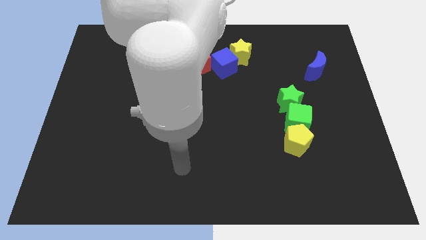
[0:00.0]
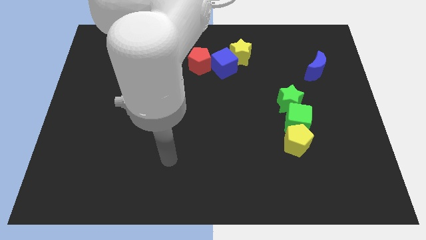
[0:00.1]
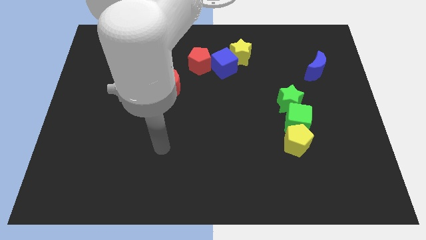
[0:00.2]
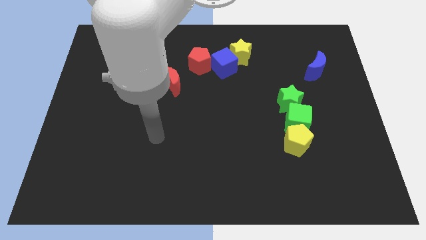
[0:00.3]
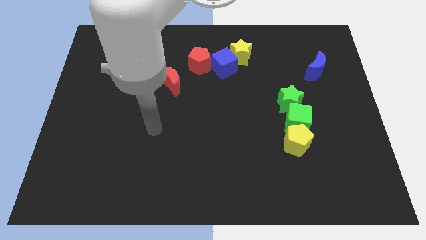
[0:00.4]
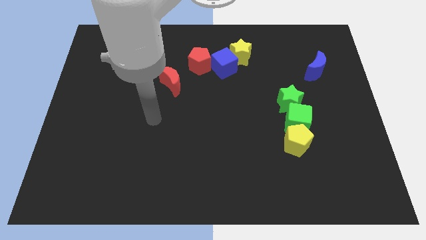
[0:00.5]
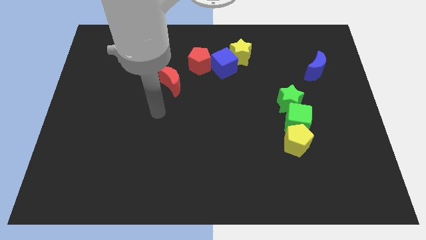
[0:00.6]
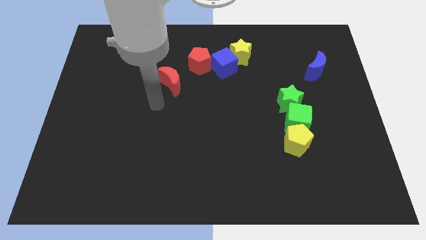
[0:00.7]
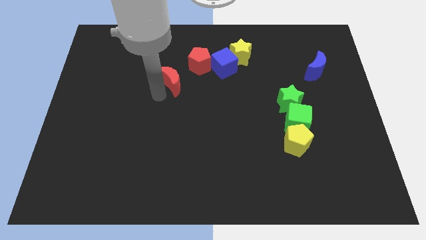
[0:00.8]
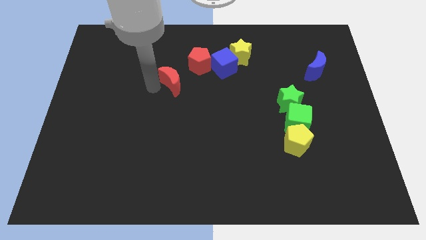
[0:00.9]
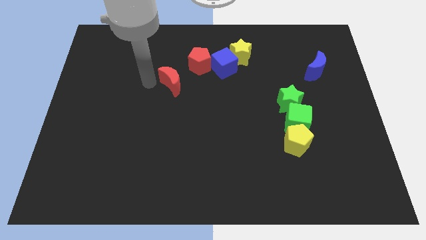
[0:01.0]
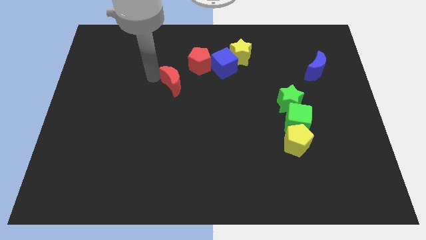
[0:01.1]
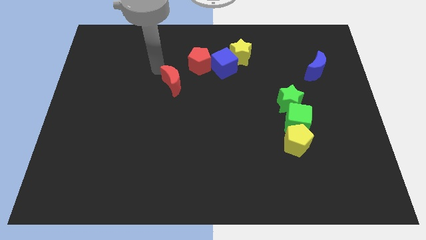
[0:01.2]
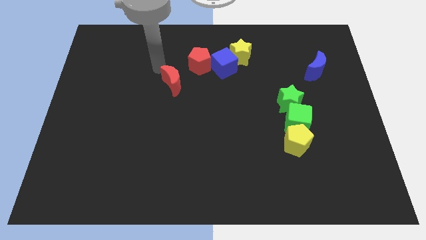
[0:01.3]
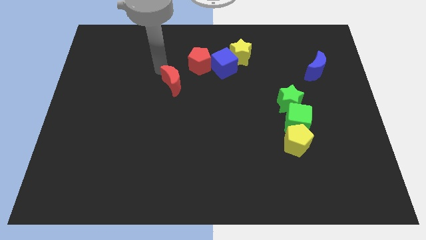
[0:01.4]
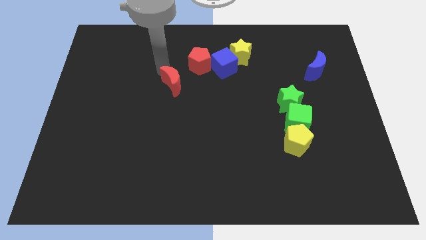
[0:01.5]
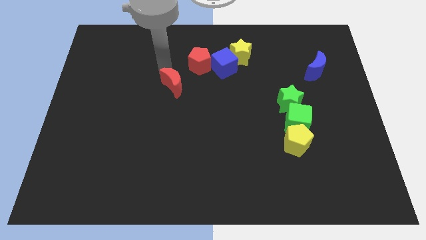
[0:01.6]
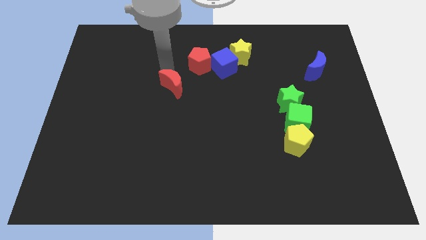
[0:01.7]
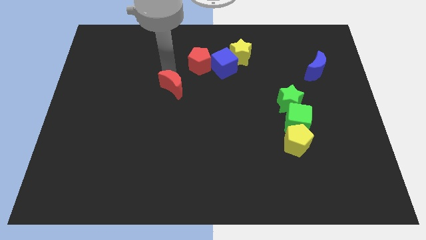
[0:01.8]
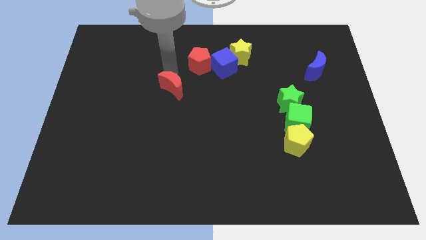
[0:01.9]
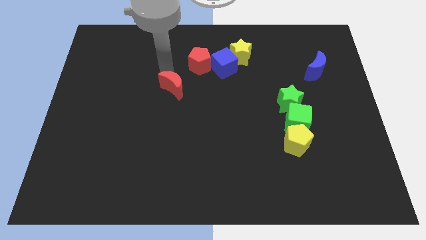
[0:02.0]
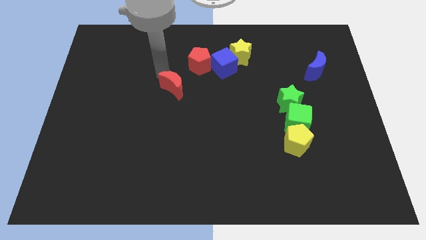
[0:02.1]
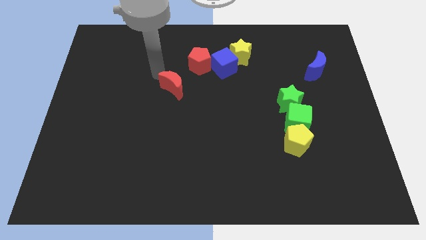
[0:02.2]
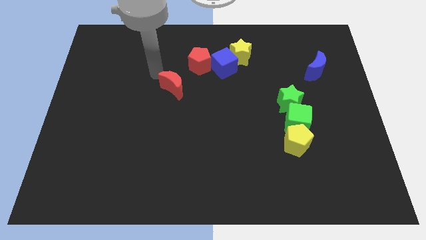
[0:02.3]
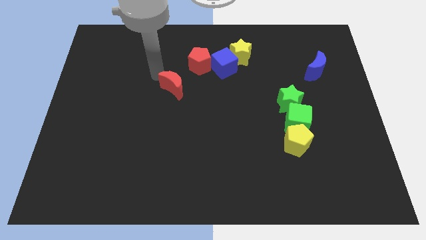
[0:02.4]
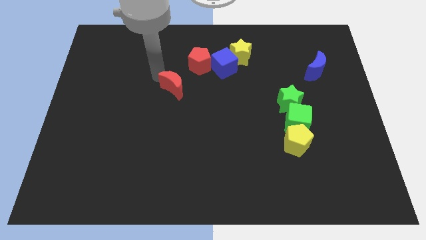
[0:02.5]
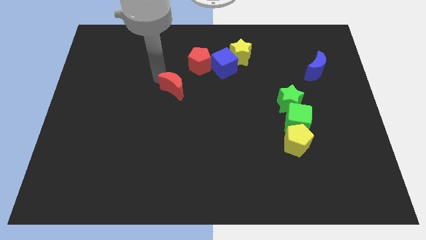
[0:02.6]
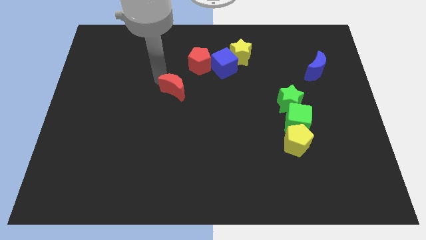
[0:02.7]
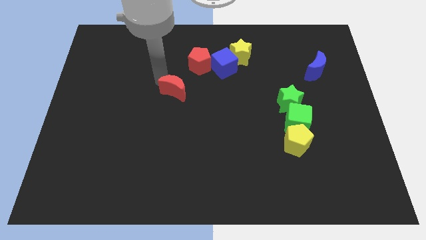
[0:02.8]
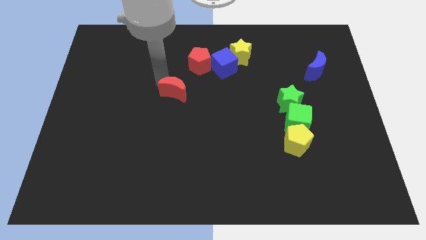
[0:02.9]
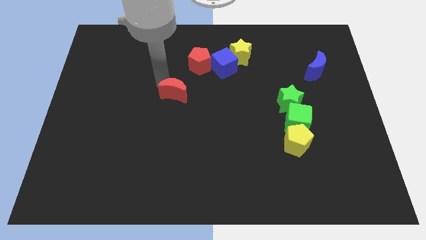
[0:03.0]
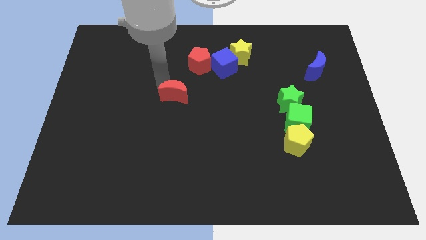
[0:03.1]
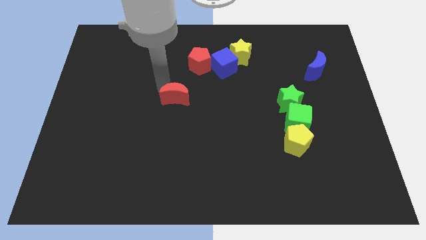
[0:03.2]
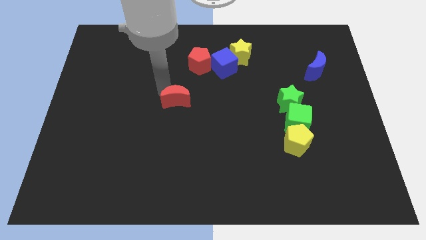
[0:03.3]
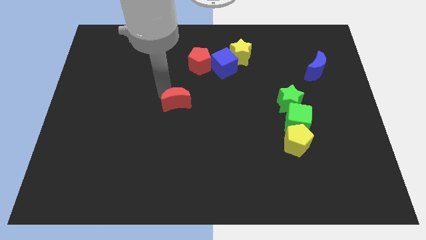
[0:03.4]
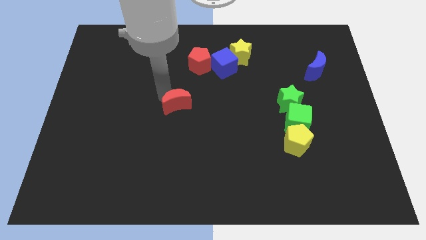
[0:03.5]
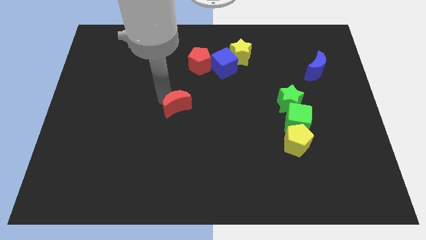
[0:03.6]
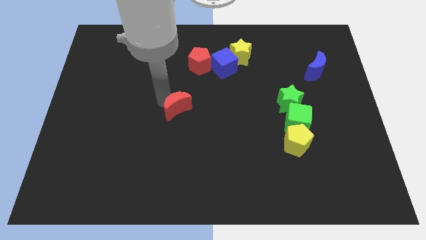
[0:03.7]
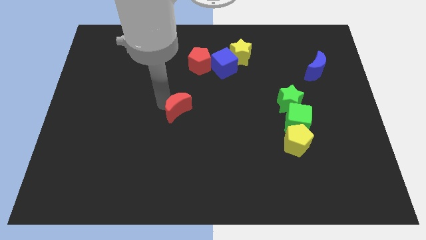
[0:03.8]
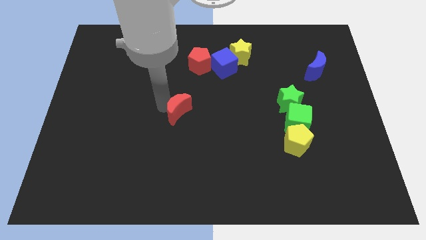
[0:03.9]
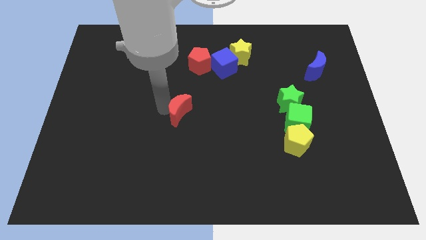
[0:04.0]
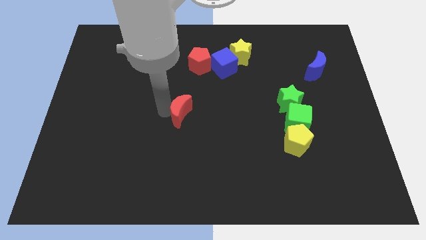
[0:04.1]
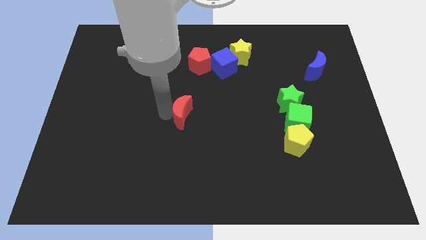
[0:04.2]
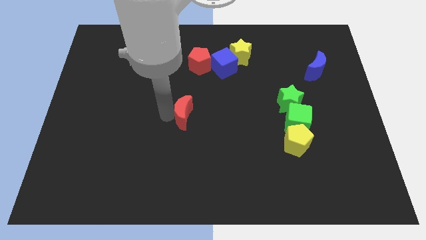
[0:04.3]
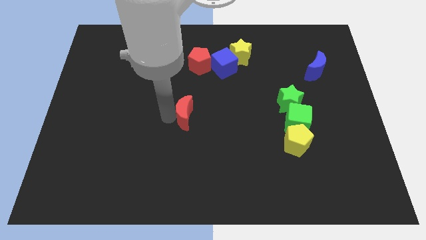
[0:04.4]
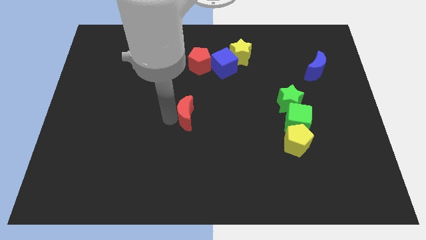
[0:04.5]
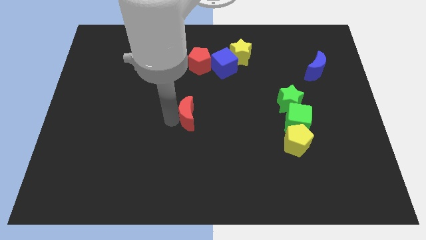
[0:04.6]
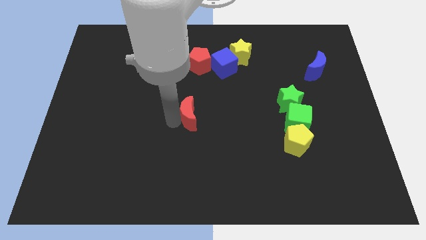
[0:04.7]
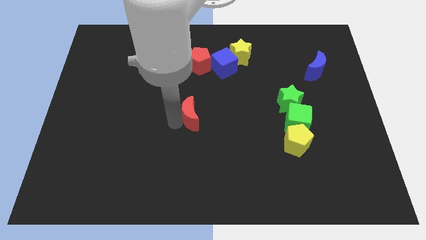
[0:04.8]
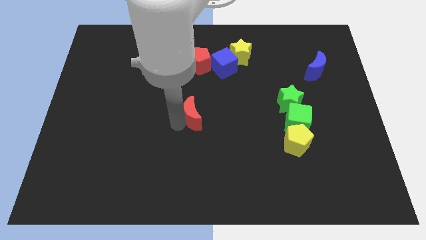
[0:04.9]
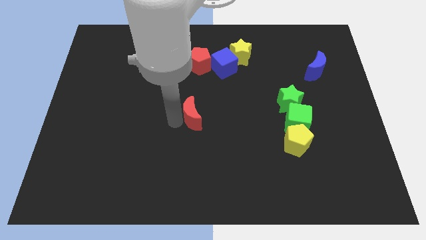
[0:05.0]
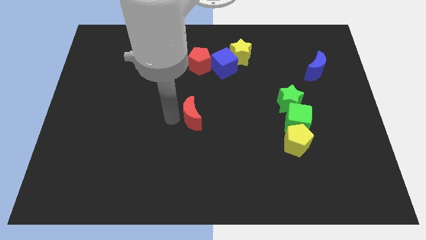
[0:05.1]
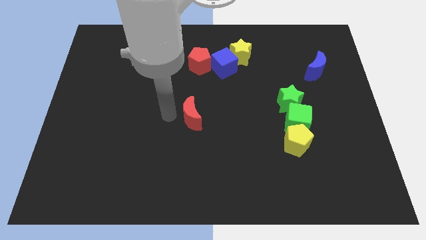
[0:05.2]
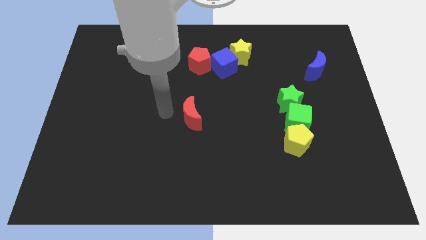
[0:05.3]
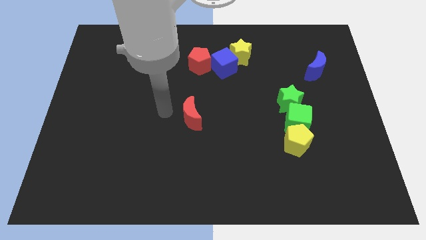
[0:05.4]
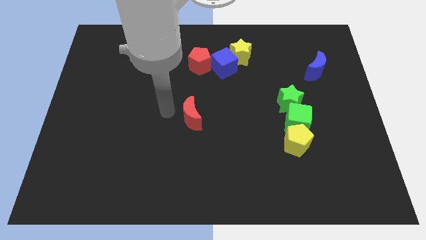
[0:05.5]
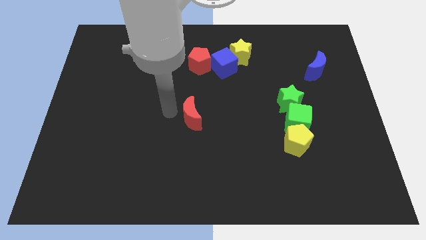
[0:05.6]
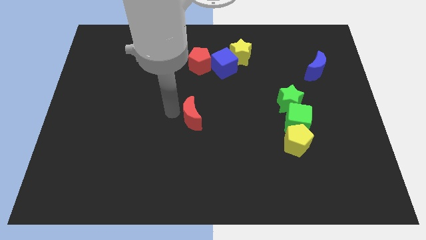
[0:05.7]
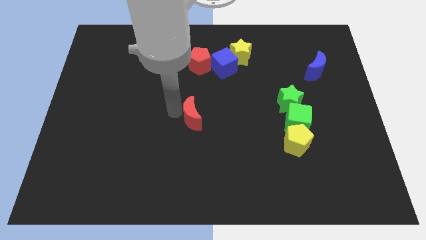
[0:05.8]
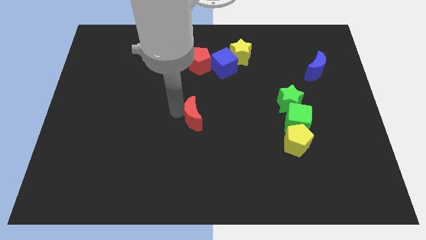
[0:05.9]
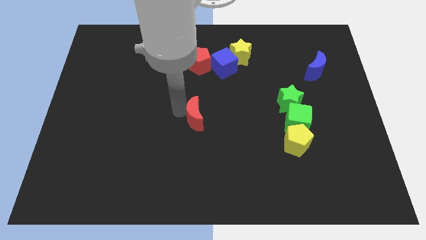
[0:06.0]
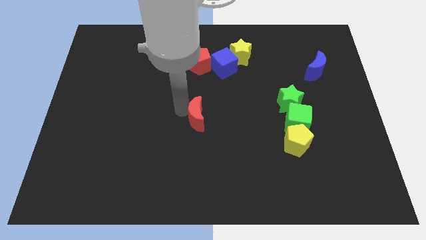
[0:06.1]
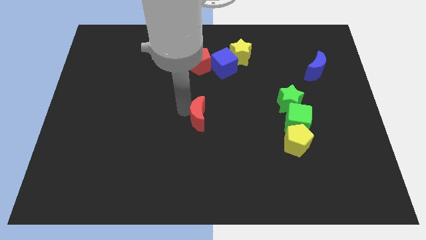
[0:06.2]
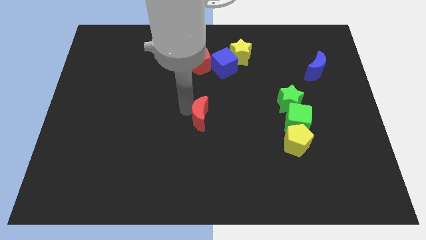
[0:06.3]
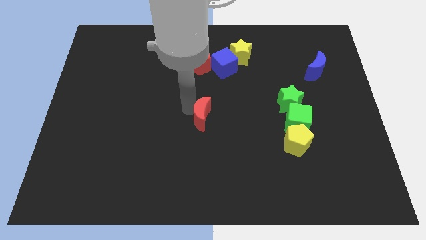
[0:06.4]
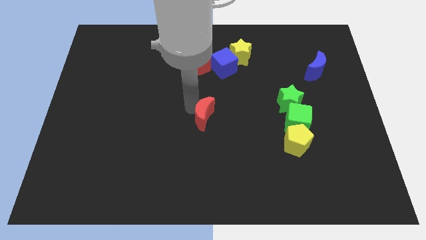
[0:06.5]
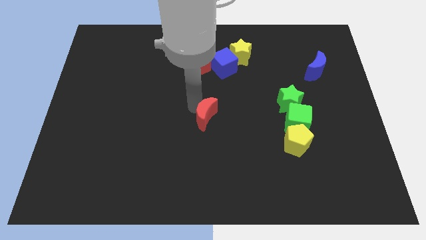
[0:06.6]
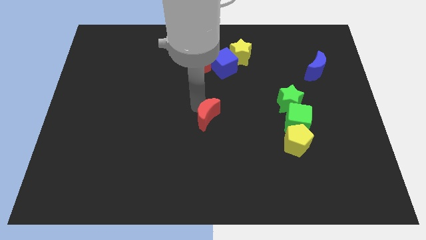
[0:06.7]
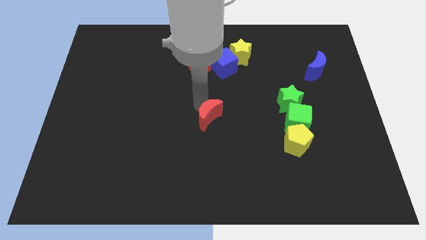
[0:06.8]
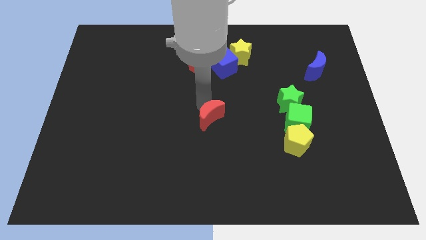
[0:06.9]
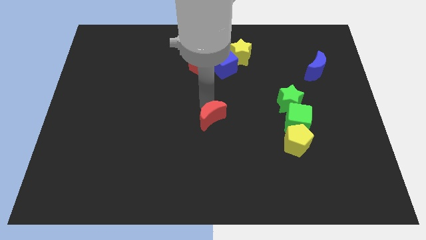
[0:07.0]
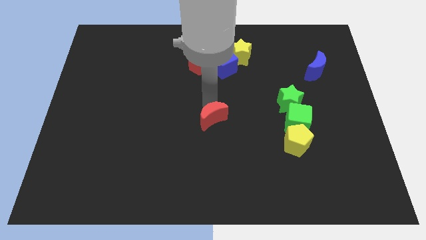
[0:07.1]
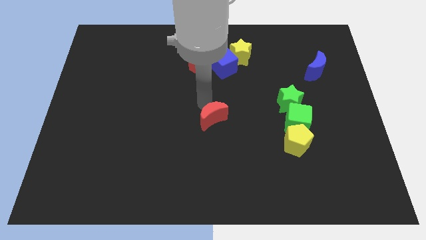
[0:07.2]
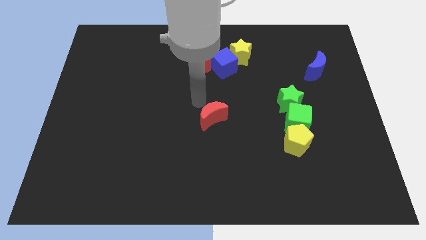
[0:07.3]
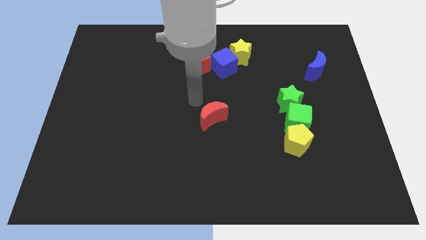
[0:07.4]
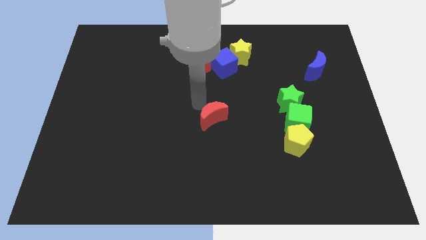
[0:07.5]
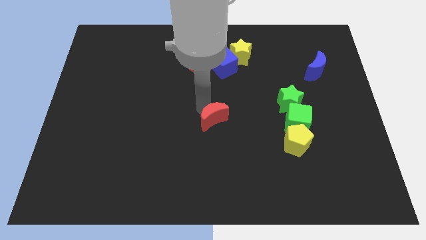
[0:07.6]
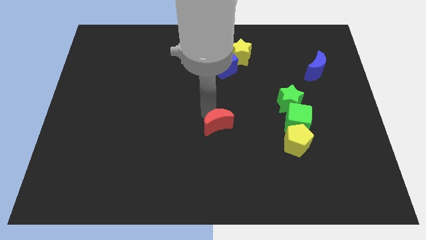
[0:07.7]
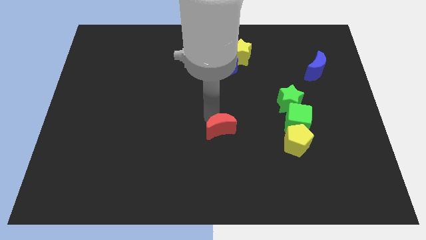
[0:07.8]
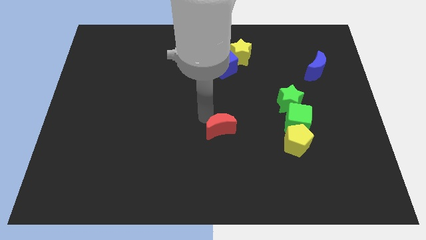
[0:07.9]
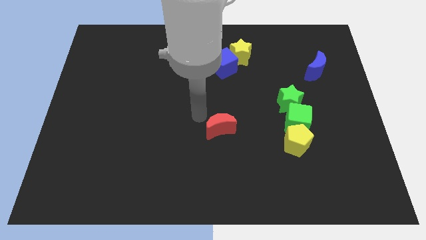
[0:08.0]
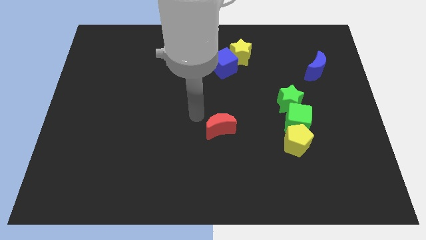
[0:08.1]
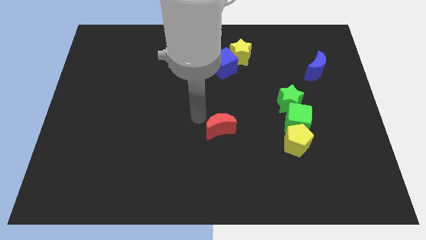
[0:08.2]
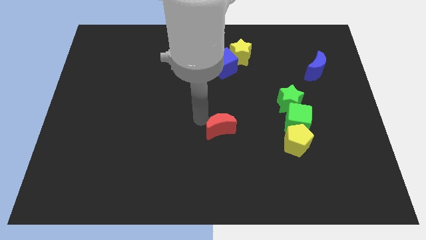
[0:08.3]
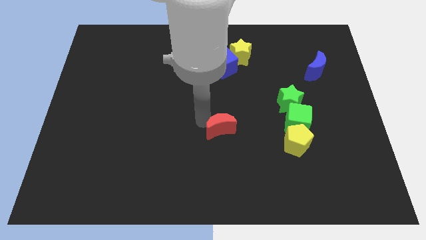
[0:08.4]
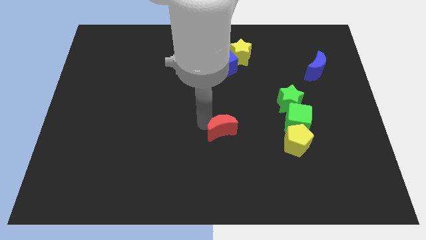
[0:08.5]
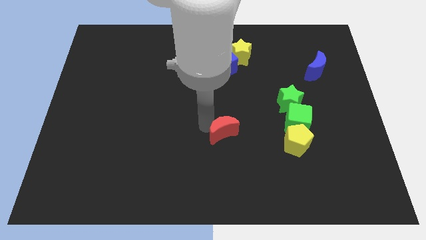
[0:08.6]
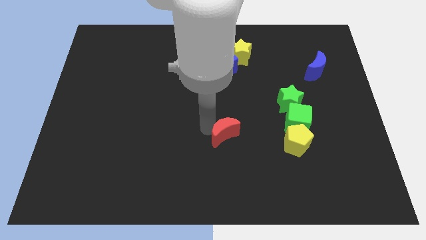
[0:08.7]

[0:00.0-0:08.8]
move the red moon just left of the yellow pentagon
